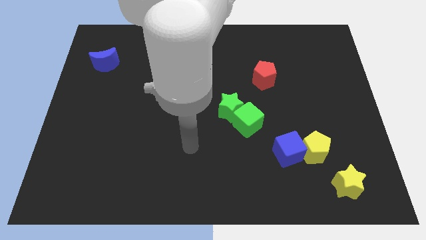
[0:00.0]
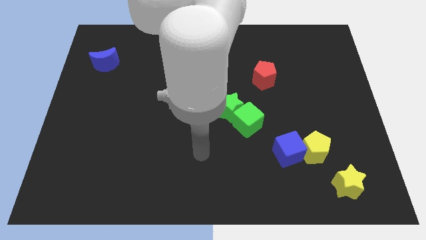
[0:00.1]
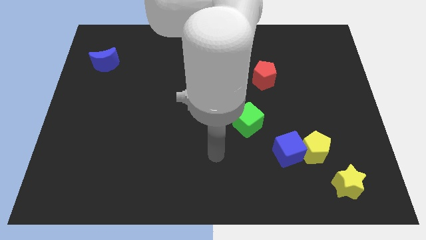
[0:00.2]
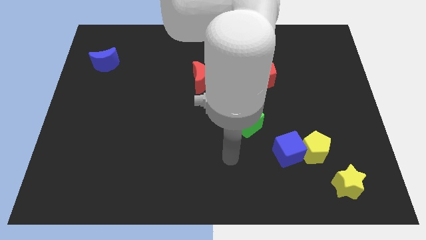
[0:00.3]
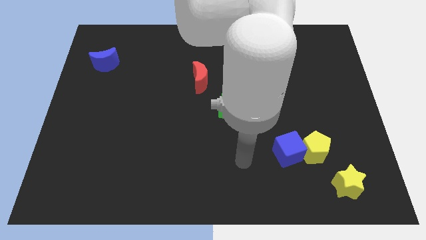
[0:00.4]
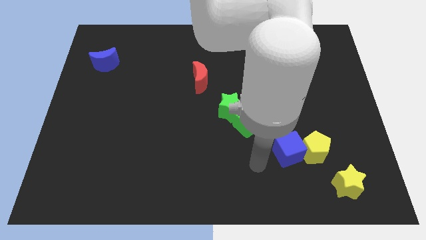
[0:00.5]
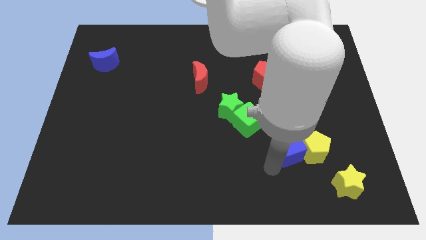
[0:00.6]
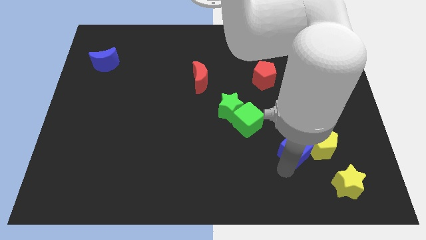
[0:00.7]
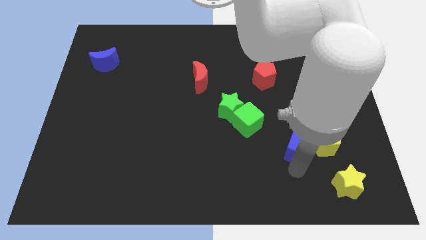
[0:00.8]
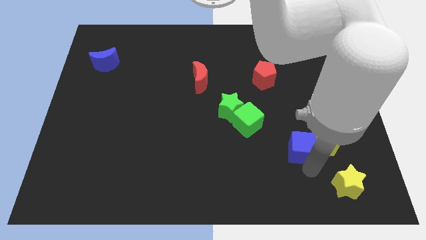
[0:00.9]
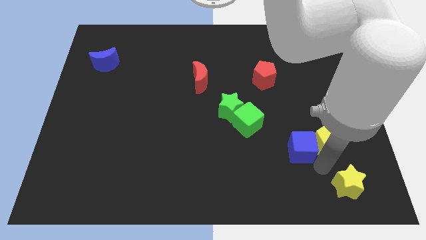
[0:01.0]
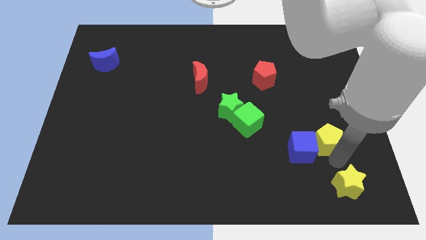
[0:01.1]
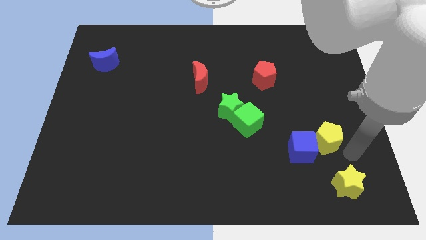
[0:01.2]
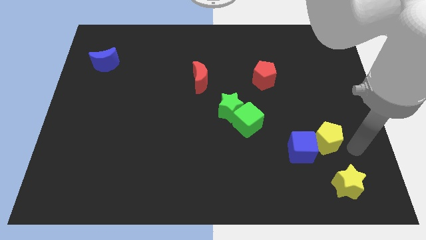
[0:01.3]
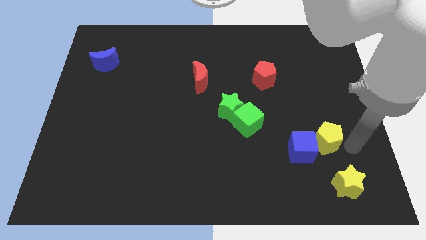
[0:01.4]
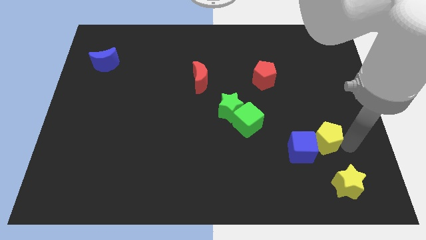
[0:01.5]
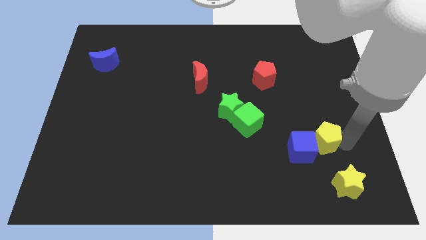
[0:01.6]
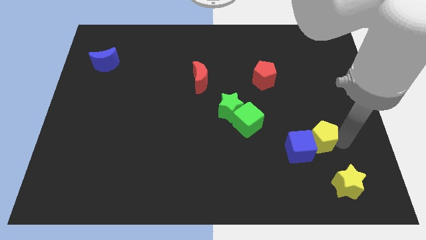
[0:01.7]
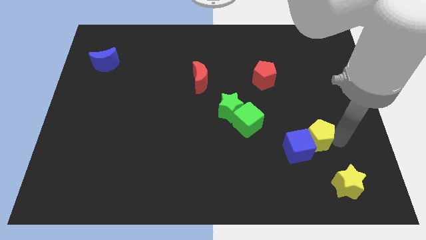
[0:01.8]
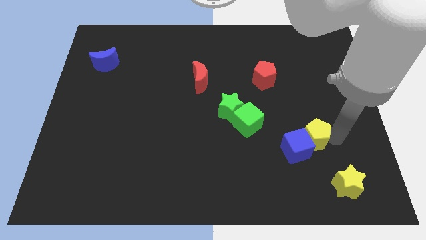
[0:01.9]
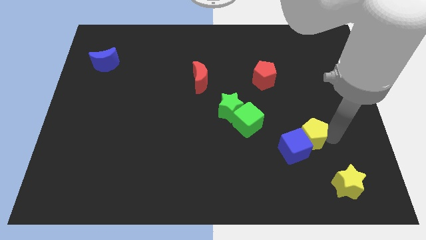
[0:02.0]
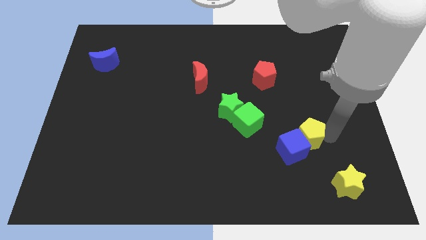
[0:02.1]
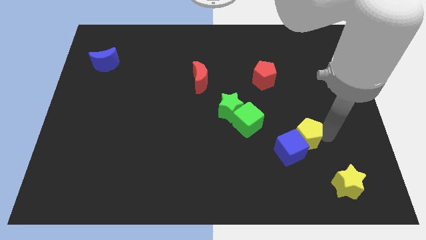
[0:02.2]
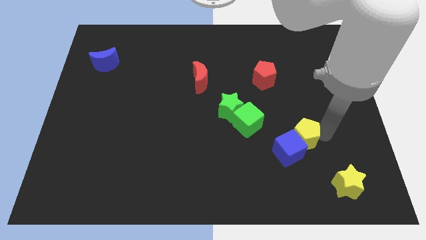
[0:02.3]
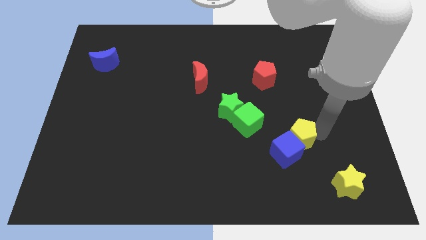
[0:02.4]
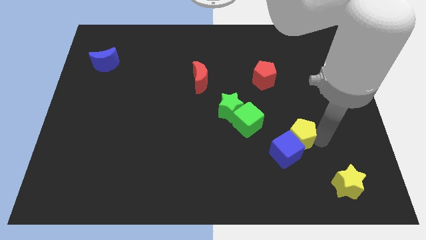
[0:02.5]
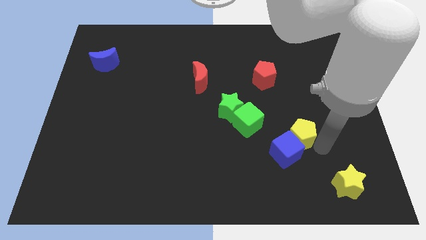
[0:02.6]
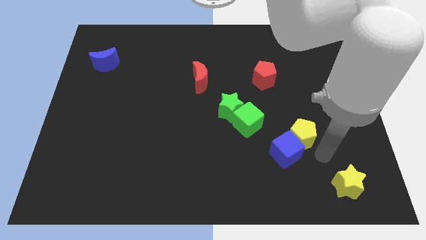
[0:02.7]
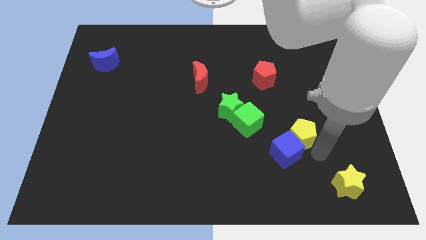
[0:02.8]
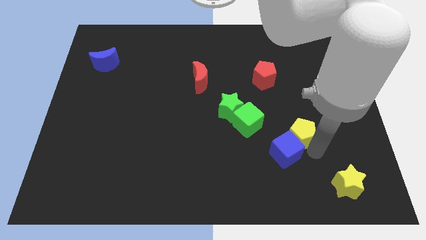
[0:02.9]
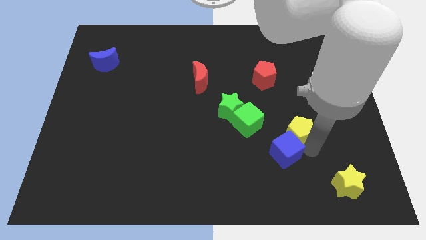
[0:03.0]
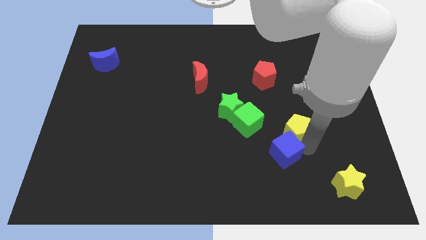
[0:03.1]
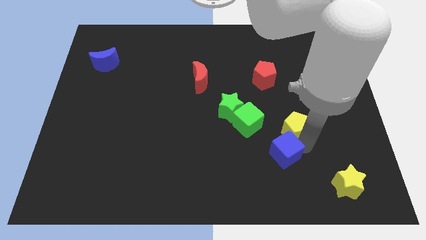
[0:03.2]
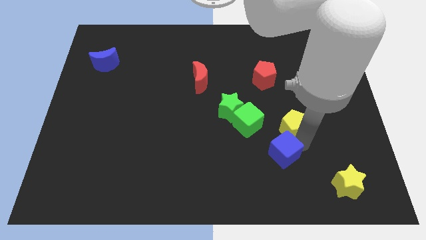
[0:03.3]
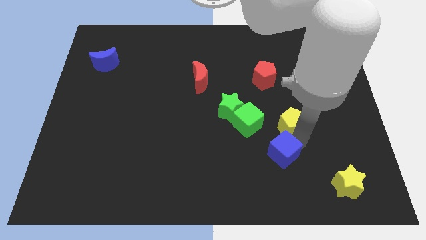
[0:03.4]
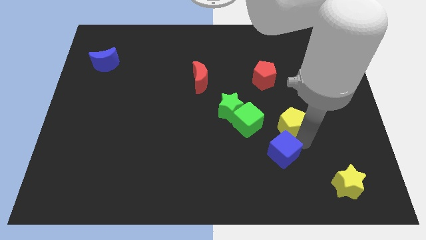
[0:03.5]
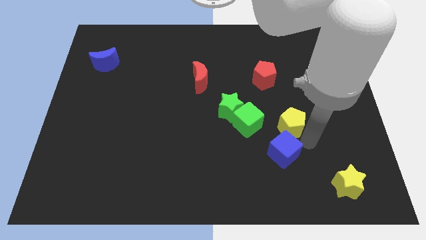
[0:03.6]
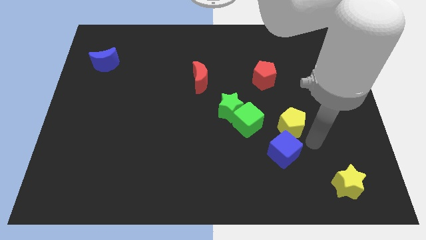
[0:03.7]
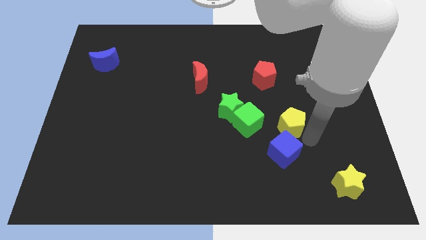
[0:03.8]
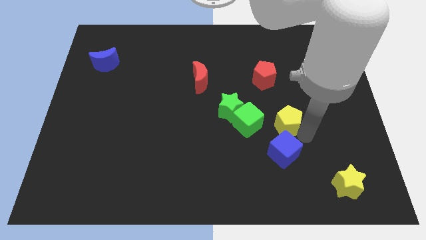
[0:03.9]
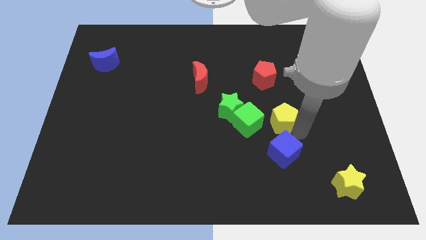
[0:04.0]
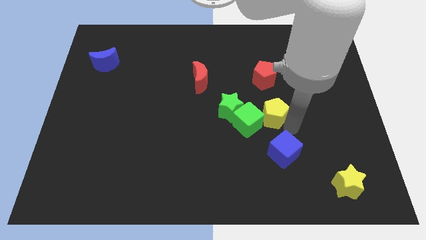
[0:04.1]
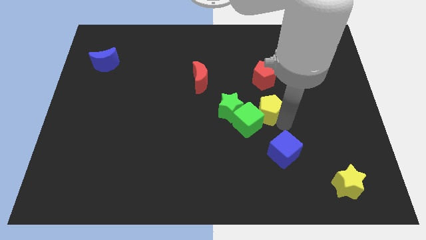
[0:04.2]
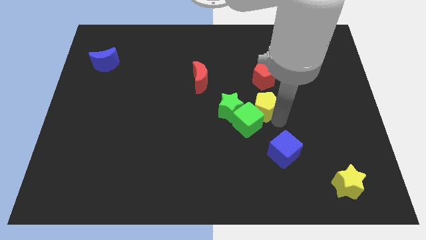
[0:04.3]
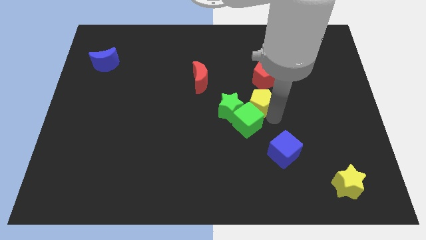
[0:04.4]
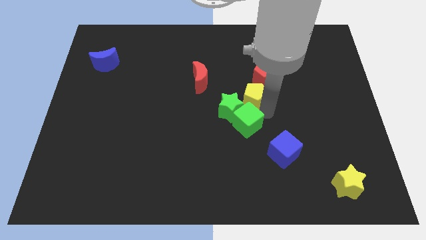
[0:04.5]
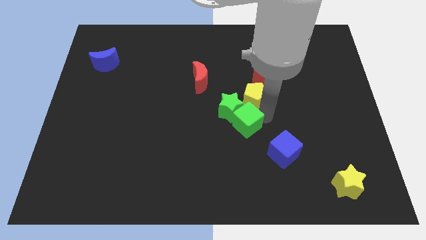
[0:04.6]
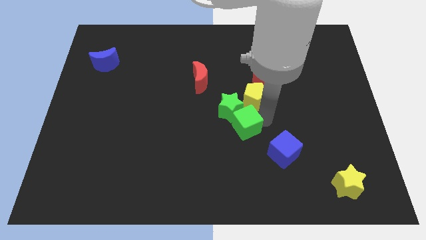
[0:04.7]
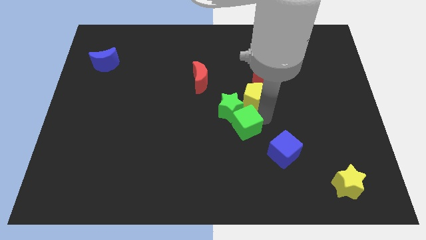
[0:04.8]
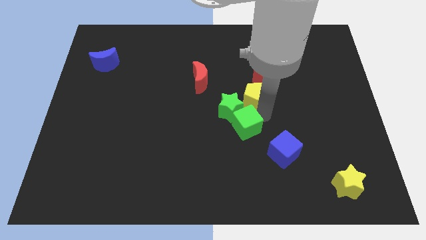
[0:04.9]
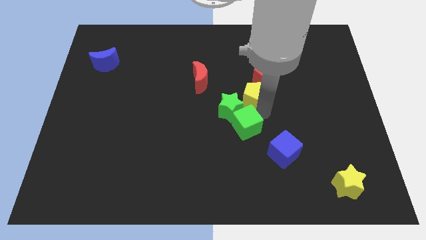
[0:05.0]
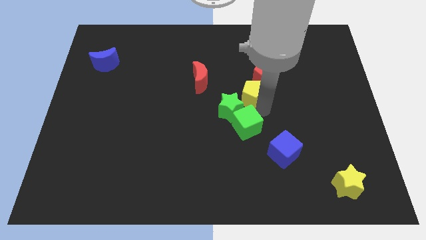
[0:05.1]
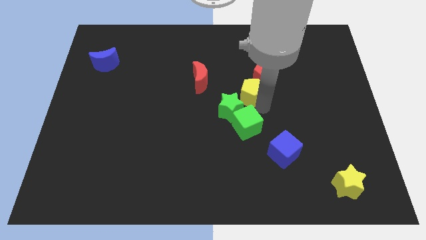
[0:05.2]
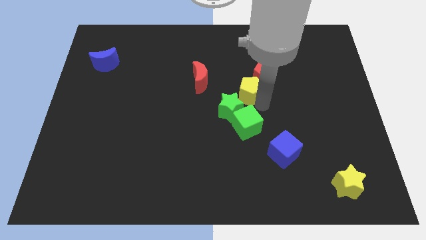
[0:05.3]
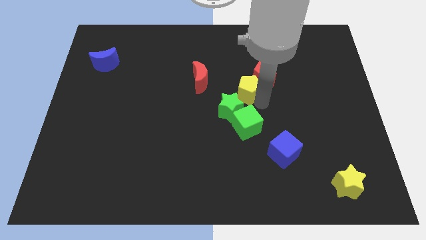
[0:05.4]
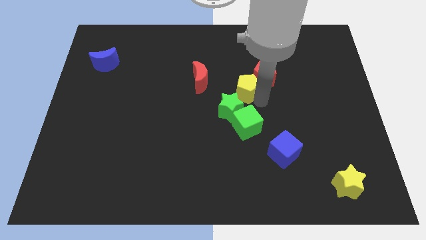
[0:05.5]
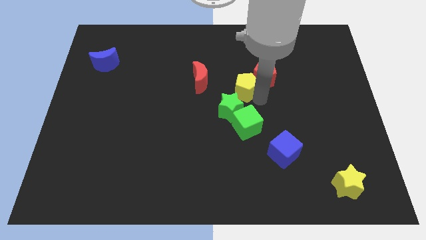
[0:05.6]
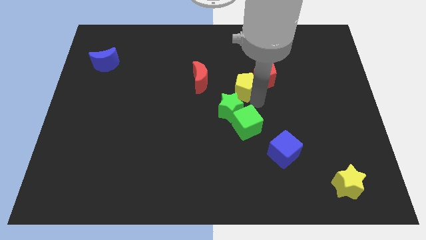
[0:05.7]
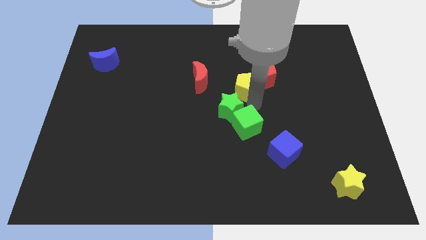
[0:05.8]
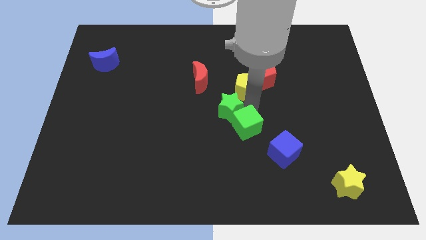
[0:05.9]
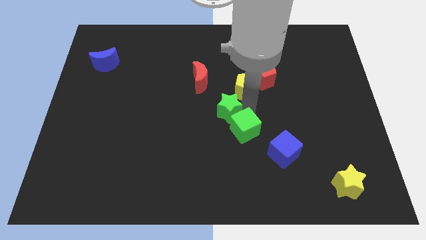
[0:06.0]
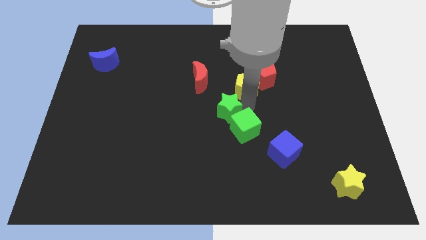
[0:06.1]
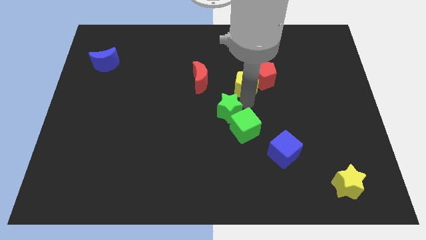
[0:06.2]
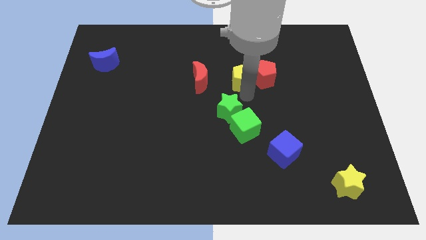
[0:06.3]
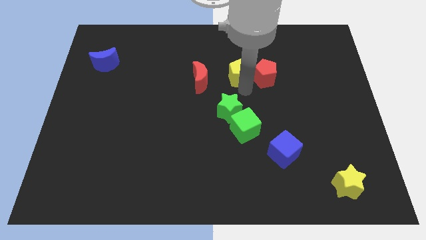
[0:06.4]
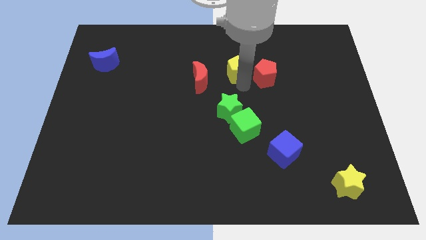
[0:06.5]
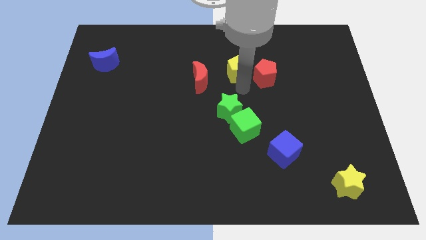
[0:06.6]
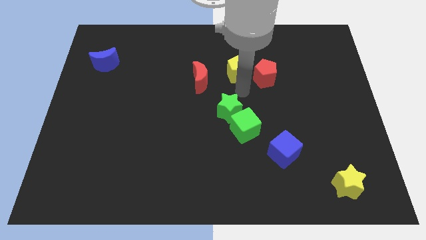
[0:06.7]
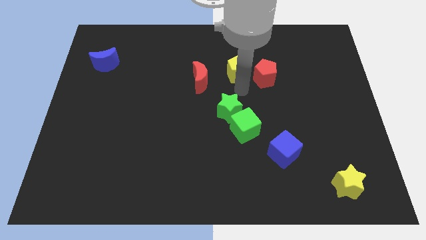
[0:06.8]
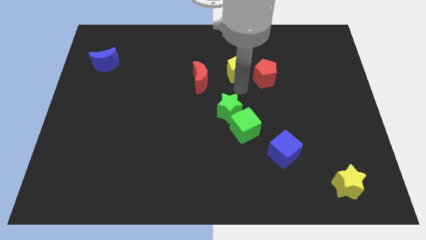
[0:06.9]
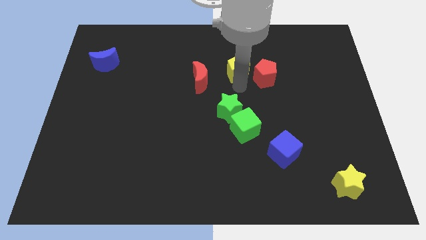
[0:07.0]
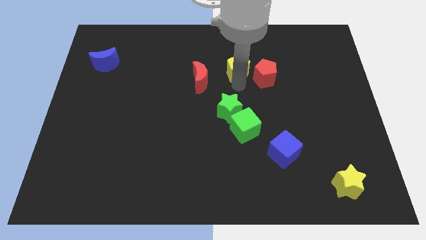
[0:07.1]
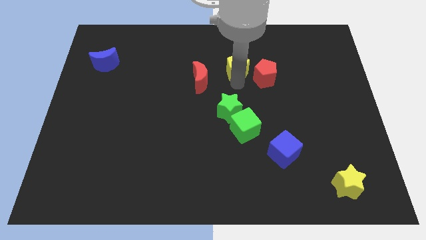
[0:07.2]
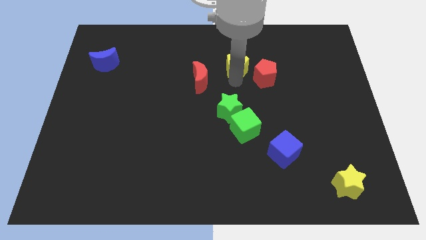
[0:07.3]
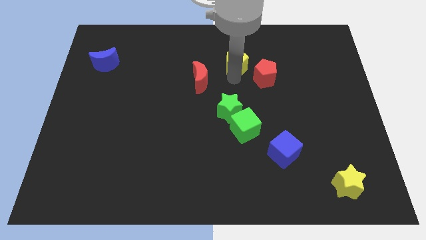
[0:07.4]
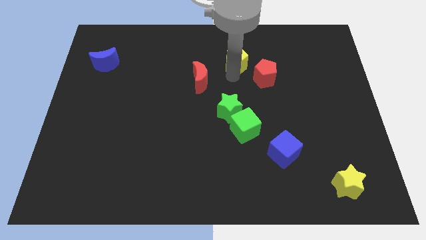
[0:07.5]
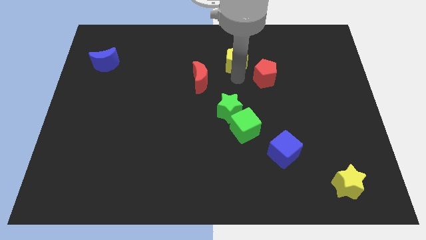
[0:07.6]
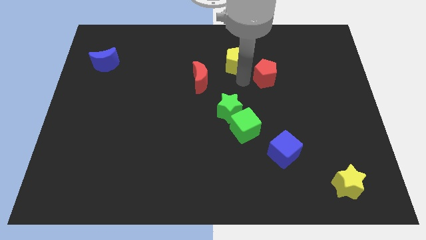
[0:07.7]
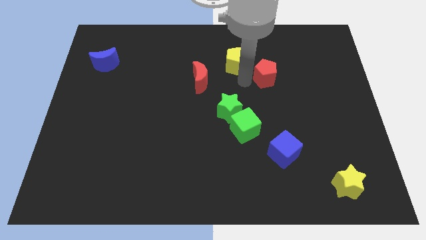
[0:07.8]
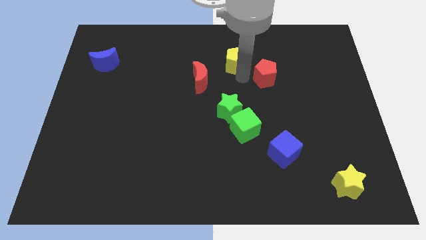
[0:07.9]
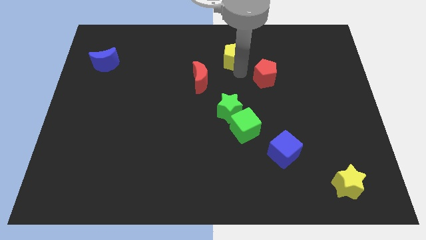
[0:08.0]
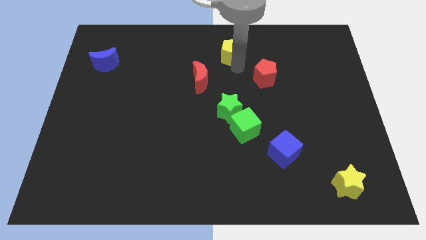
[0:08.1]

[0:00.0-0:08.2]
slide the yellow pentagon to the top side
